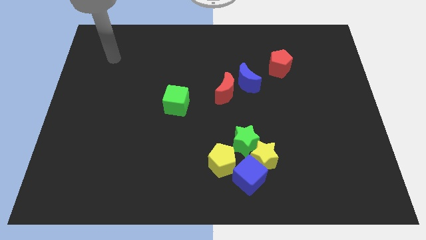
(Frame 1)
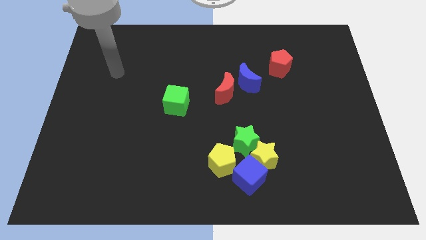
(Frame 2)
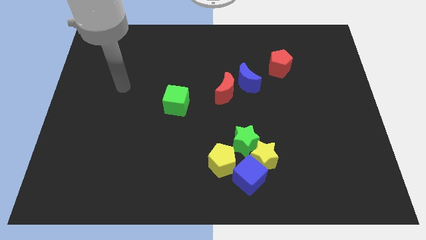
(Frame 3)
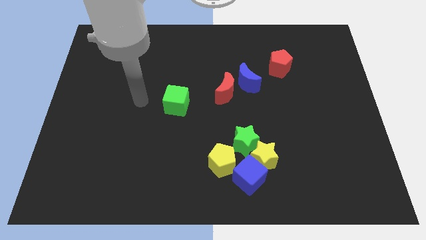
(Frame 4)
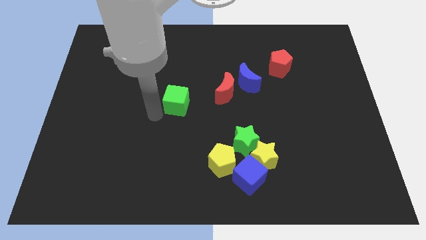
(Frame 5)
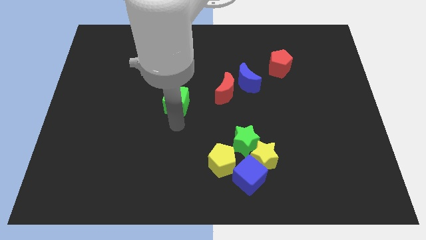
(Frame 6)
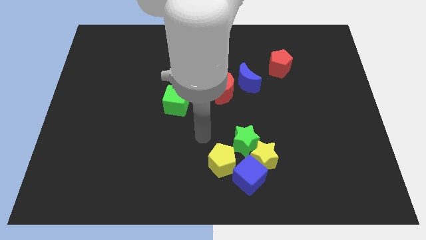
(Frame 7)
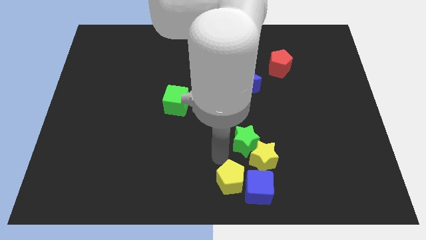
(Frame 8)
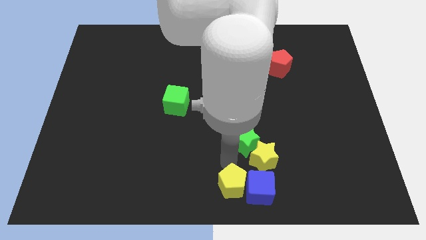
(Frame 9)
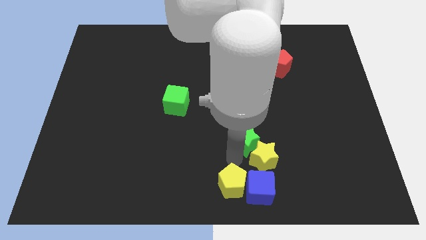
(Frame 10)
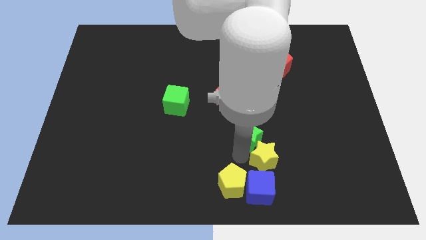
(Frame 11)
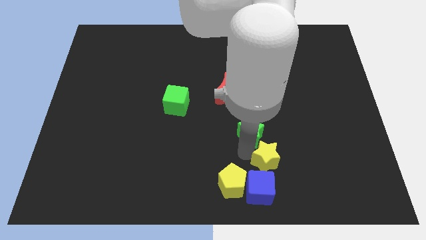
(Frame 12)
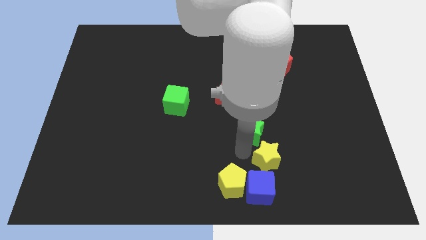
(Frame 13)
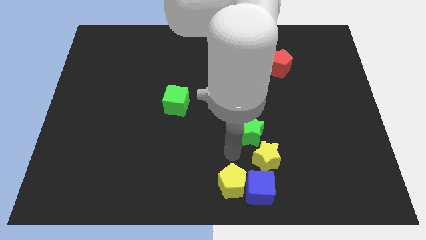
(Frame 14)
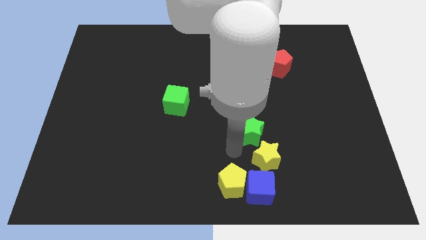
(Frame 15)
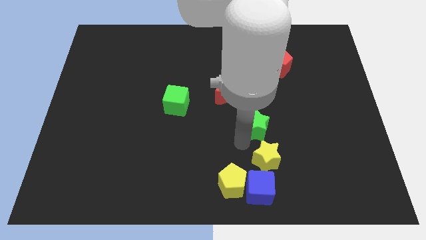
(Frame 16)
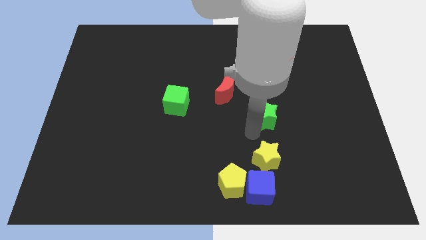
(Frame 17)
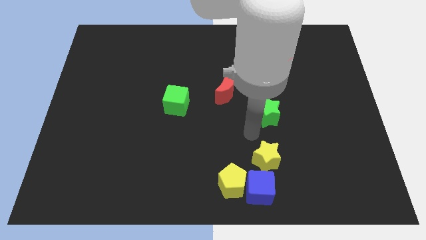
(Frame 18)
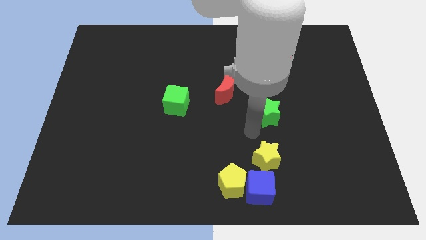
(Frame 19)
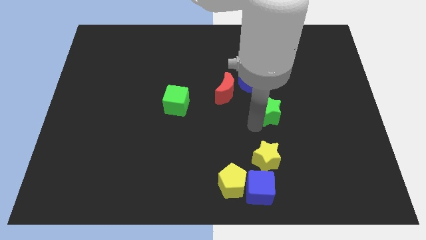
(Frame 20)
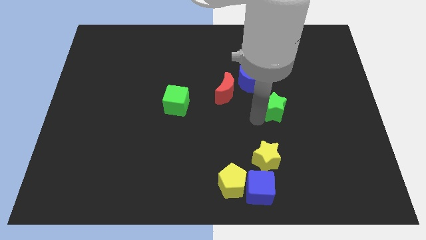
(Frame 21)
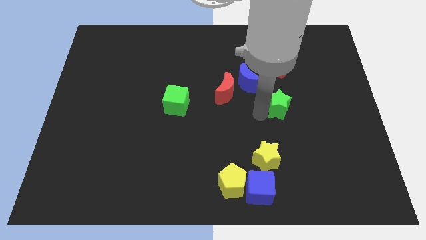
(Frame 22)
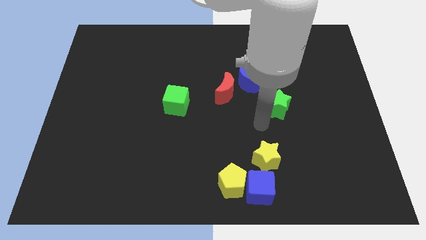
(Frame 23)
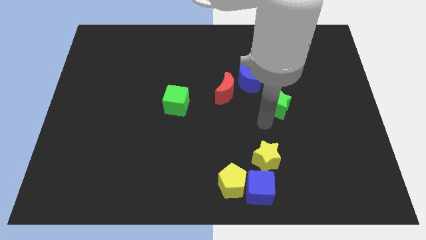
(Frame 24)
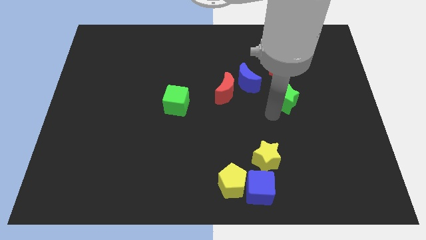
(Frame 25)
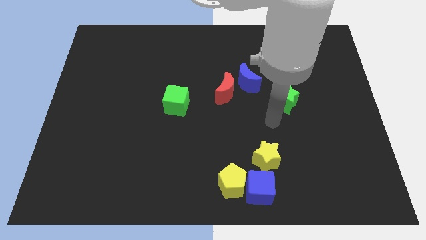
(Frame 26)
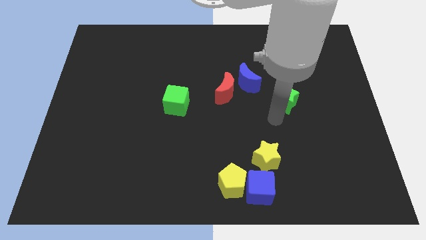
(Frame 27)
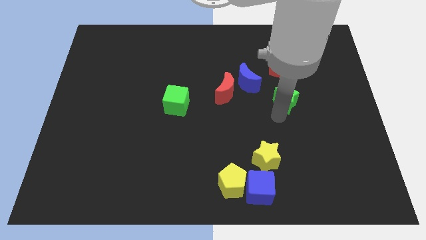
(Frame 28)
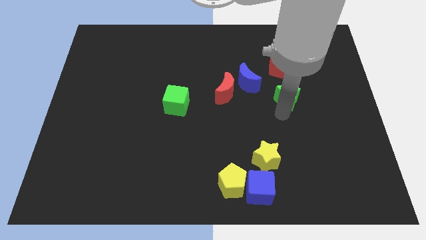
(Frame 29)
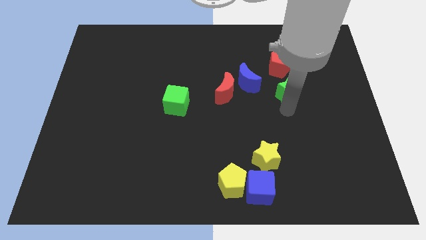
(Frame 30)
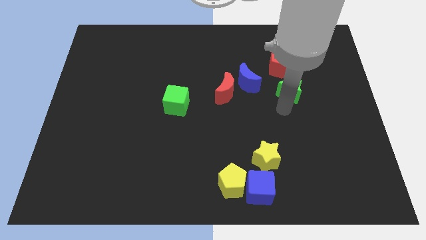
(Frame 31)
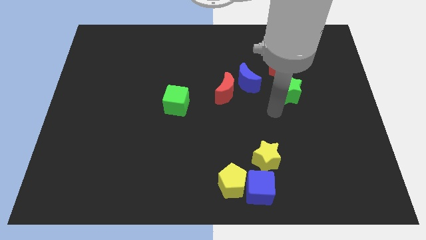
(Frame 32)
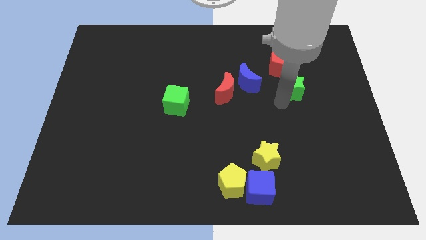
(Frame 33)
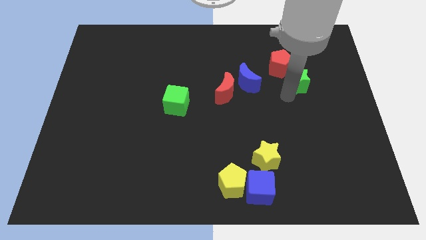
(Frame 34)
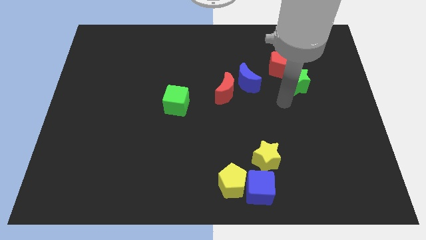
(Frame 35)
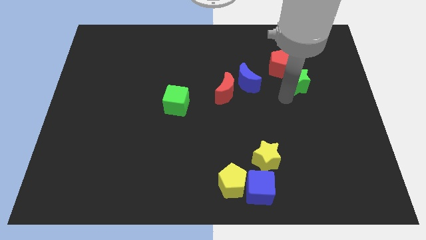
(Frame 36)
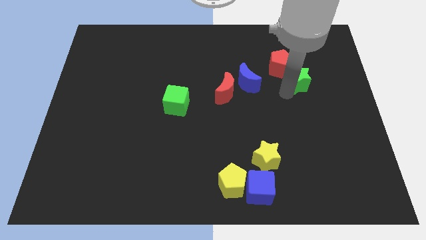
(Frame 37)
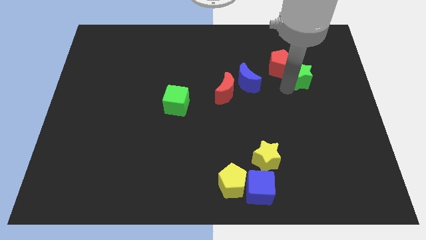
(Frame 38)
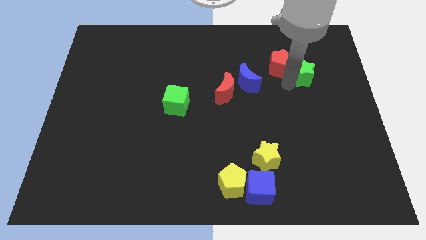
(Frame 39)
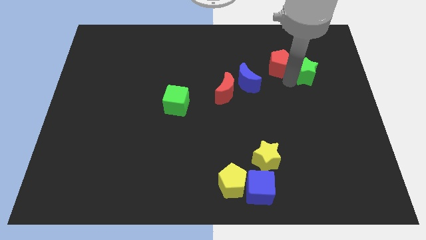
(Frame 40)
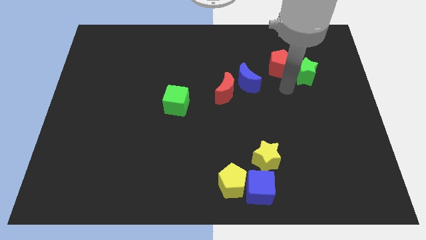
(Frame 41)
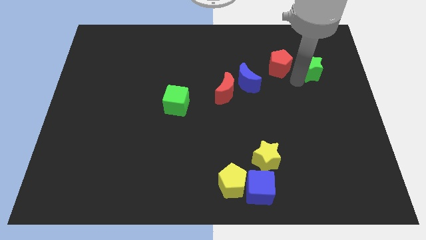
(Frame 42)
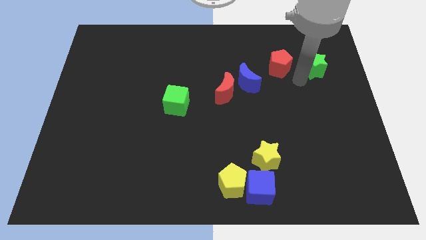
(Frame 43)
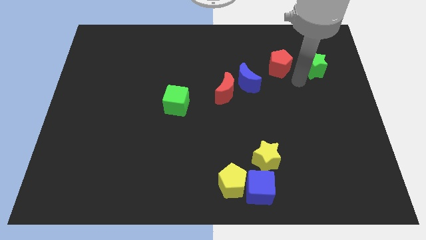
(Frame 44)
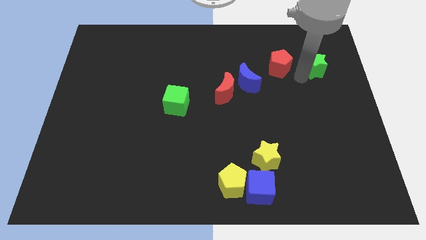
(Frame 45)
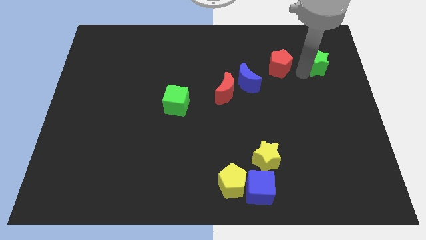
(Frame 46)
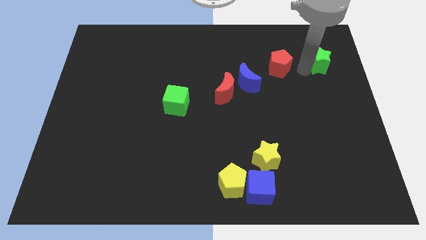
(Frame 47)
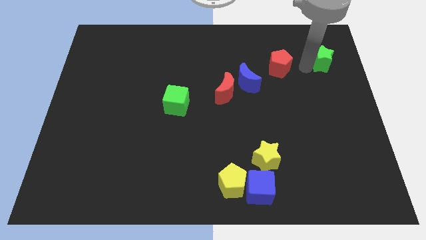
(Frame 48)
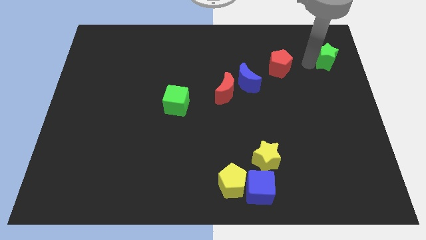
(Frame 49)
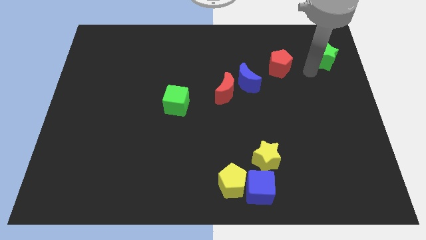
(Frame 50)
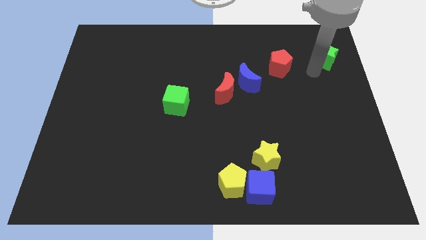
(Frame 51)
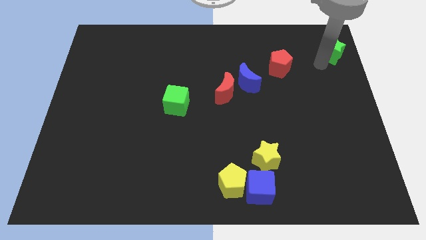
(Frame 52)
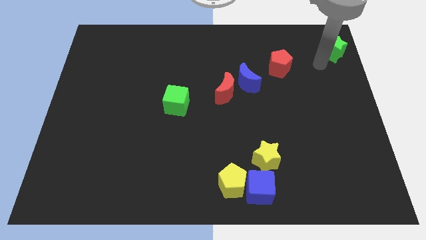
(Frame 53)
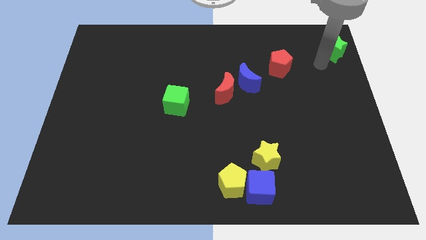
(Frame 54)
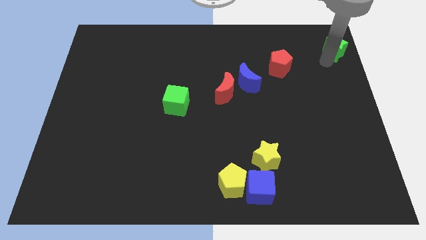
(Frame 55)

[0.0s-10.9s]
put the green star to the top right of the board

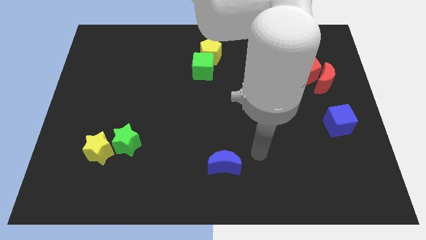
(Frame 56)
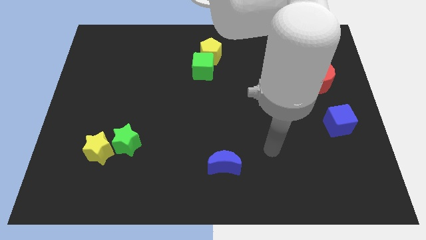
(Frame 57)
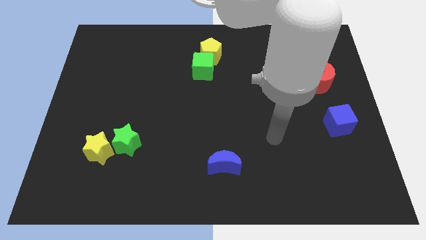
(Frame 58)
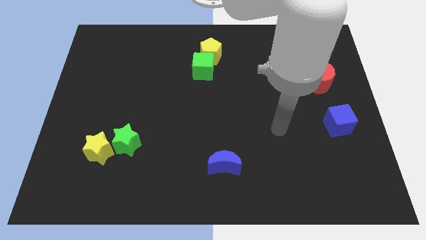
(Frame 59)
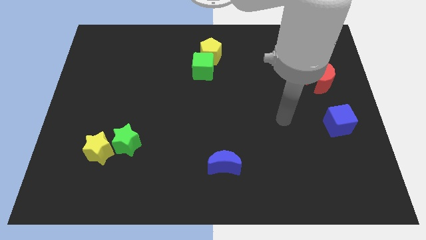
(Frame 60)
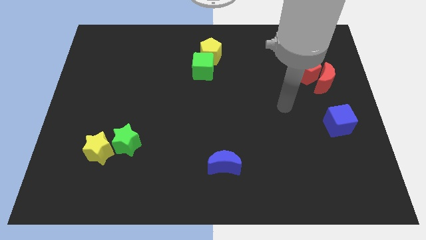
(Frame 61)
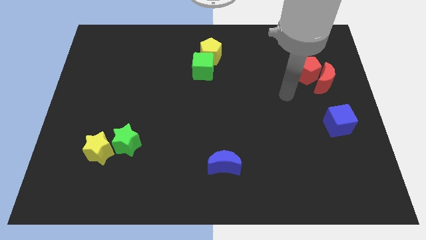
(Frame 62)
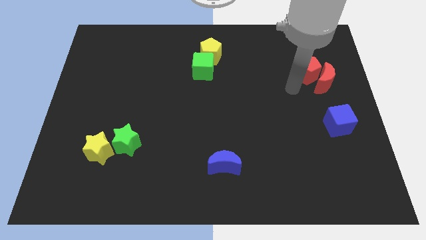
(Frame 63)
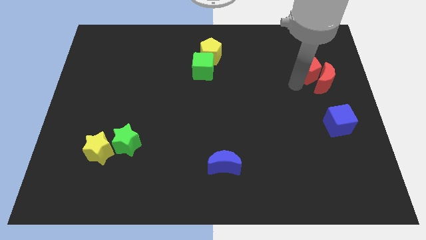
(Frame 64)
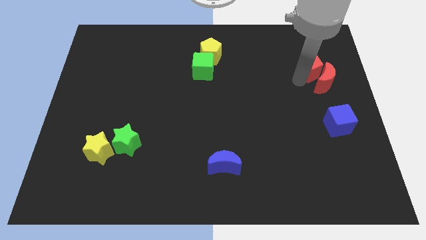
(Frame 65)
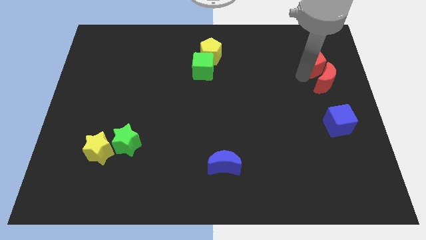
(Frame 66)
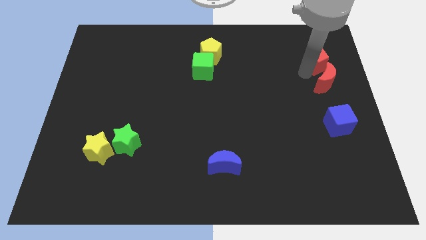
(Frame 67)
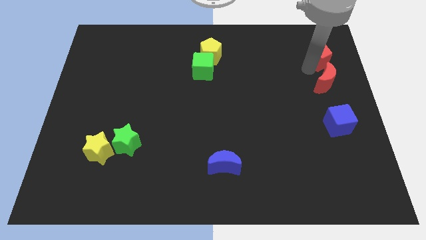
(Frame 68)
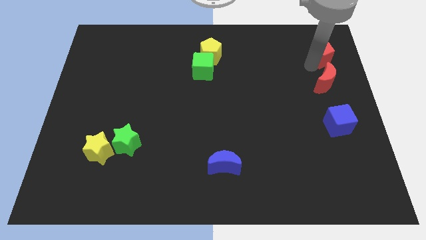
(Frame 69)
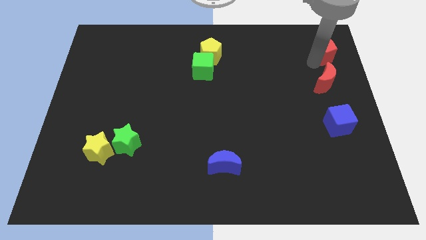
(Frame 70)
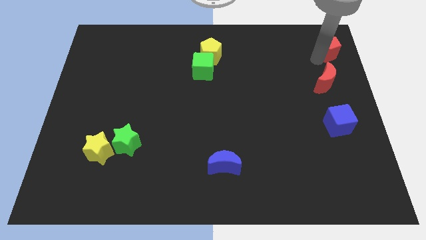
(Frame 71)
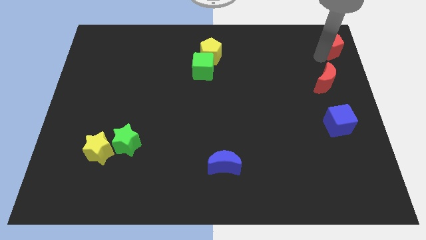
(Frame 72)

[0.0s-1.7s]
push the red pentagon to the top right of the board
